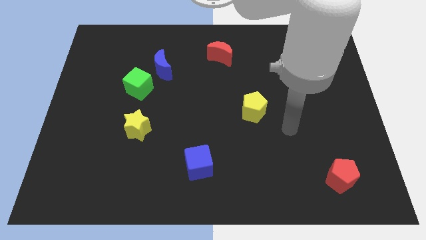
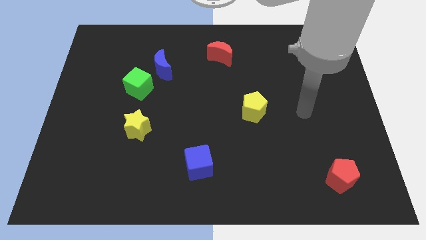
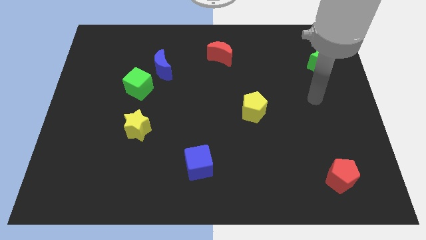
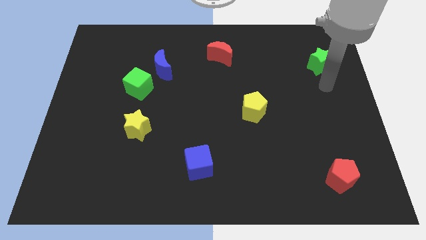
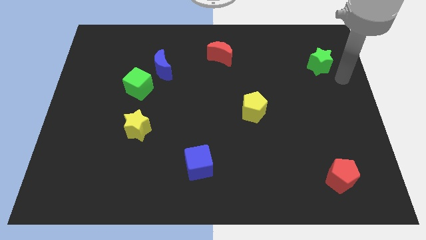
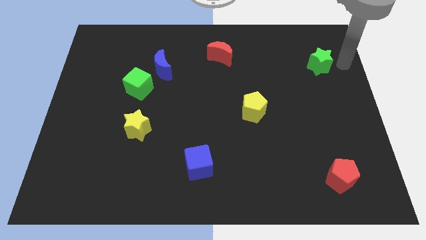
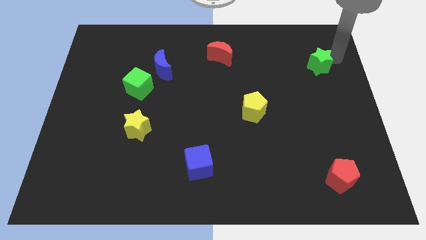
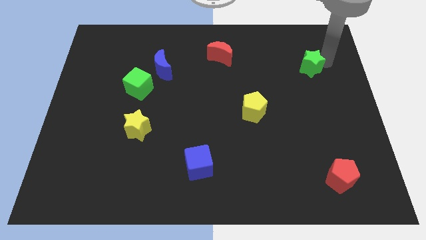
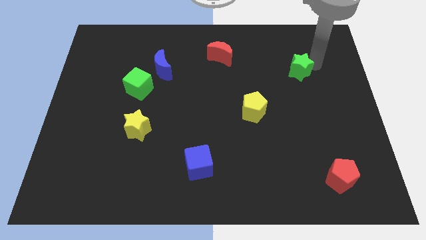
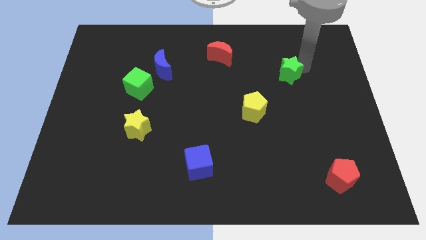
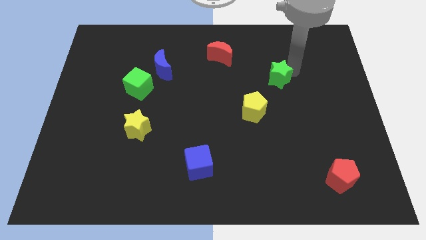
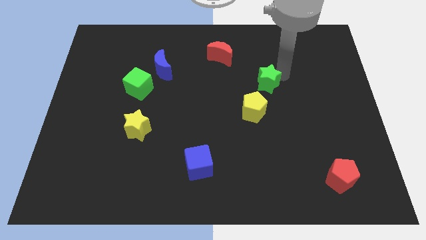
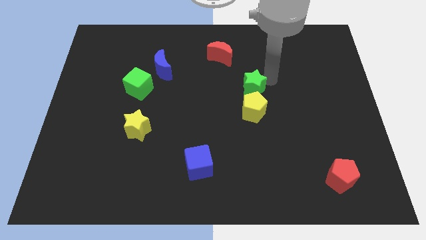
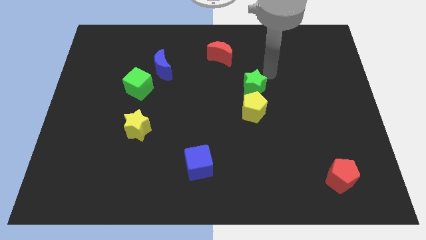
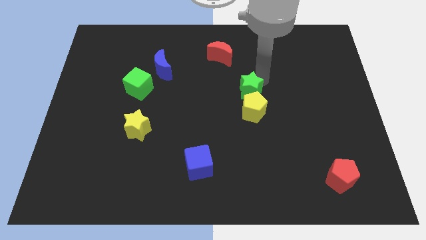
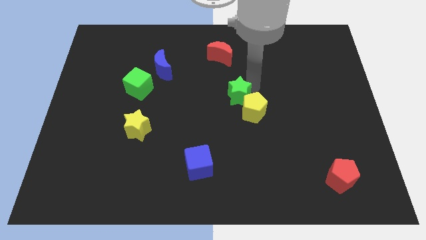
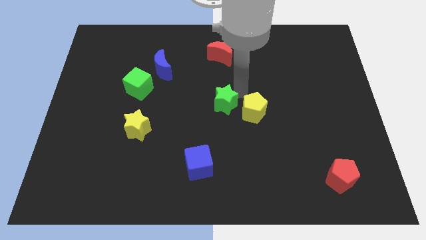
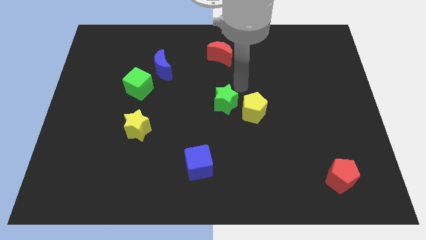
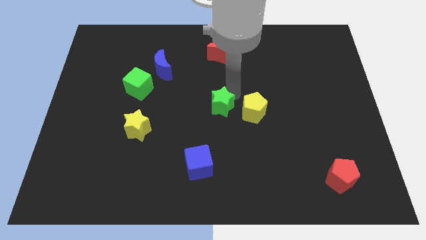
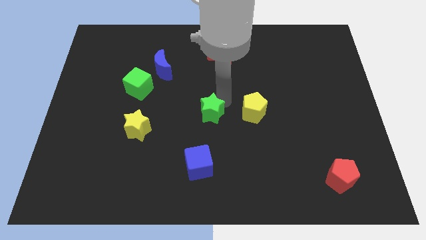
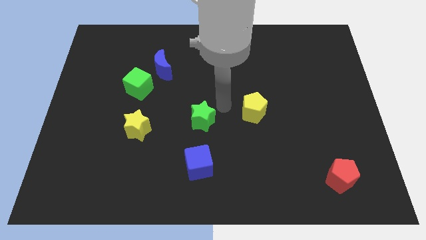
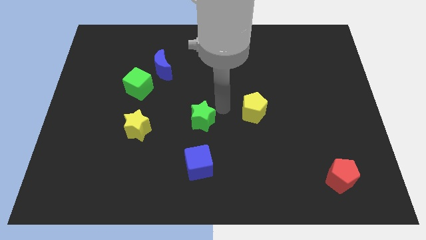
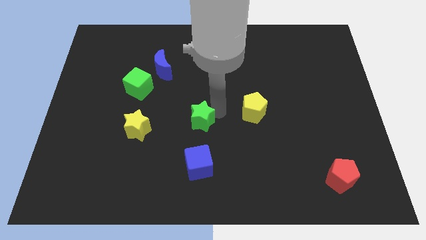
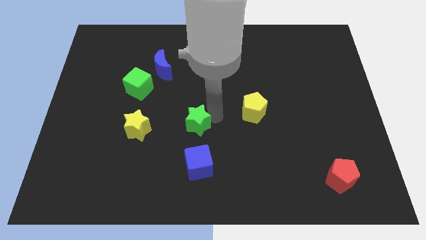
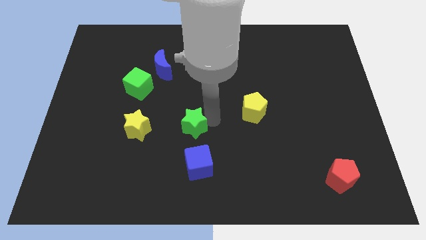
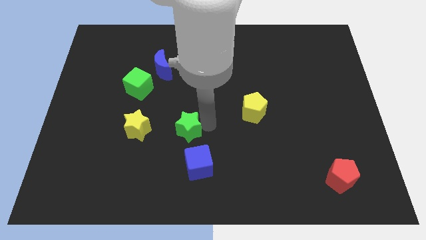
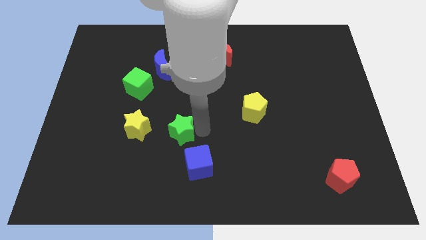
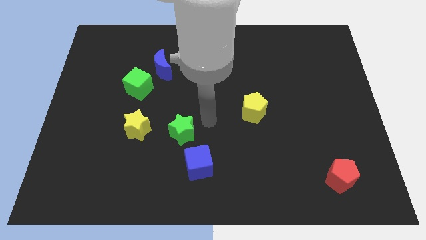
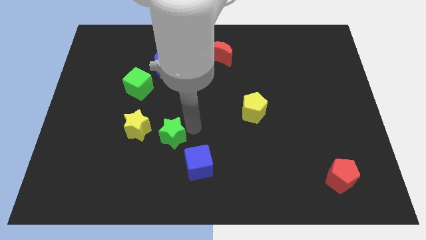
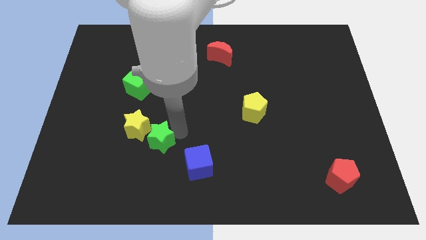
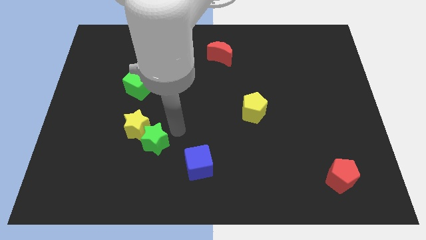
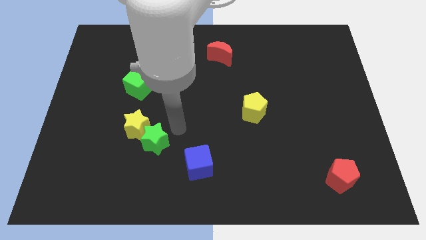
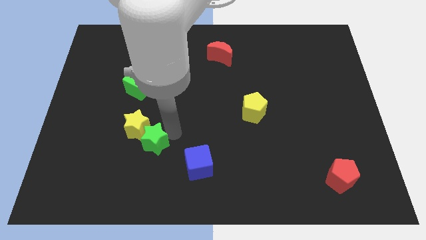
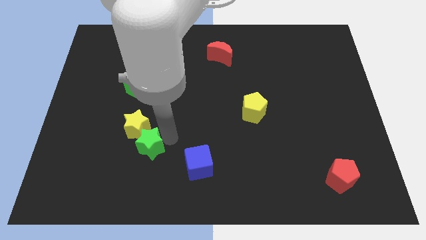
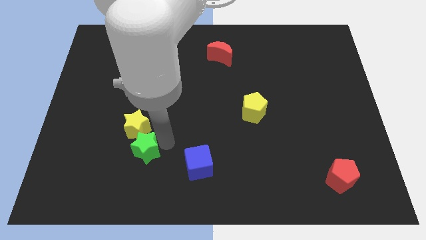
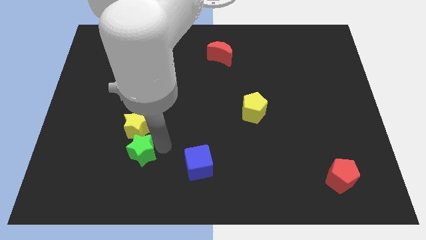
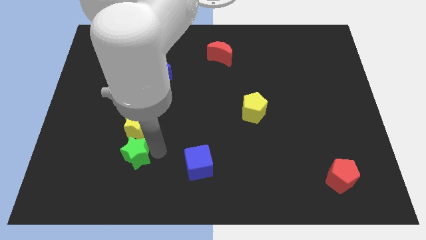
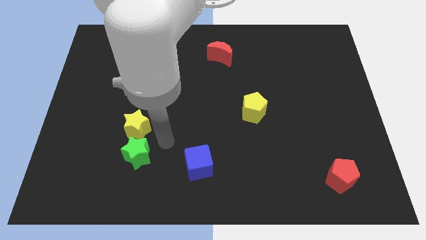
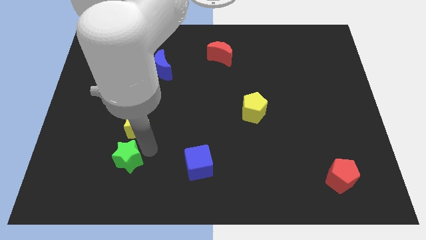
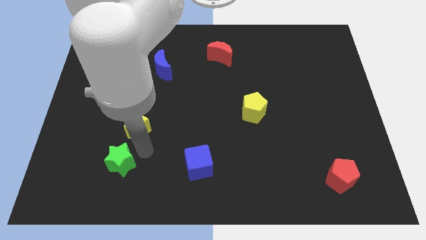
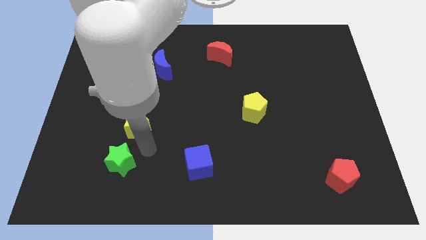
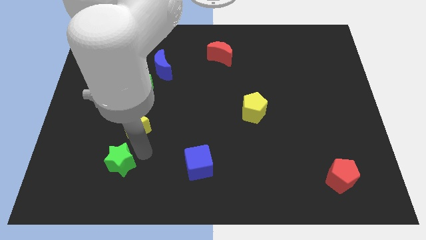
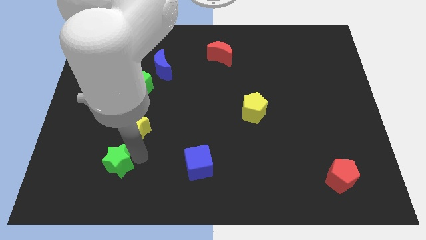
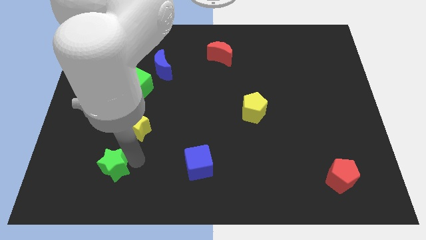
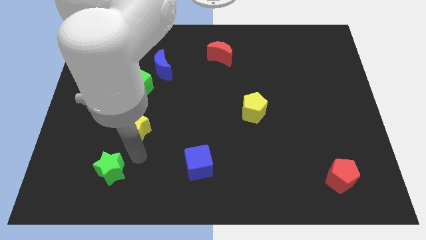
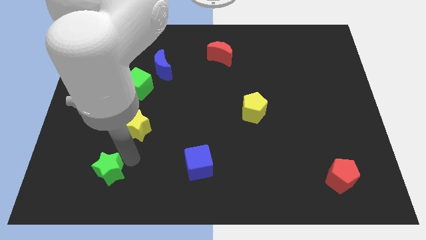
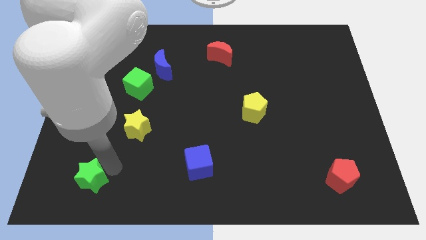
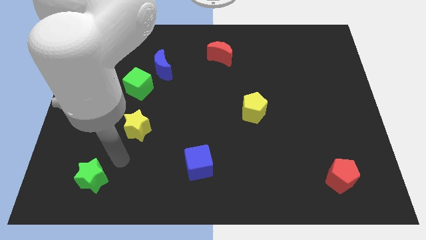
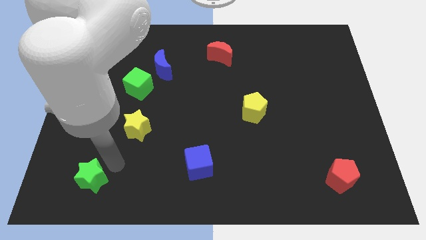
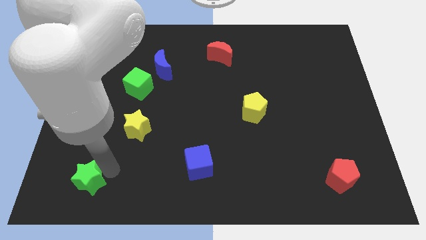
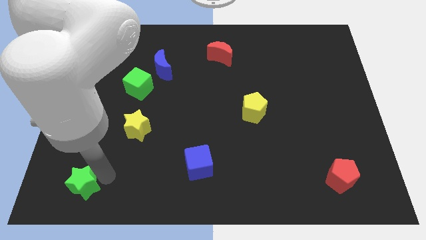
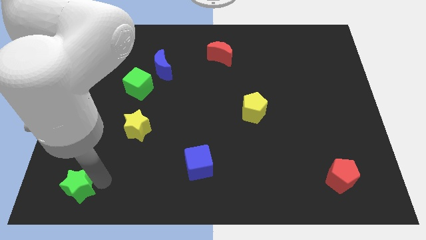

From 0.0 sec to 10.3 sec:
slide the green star to the lower left corner
